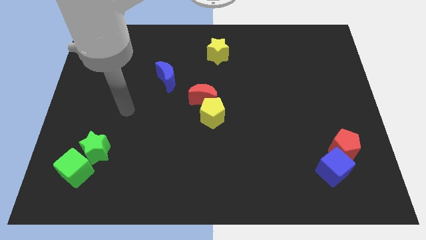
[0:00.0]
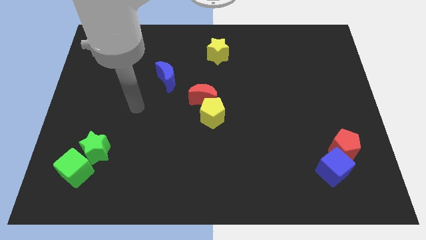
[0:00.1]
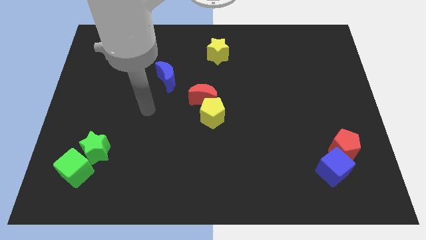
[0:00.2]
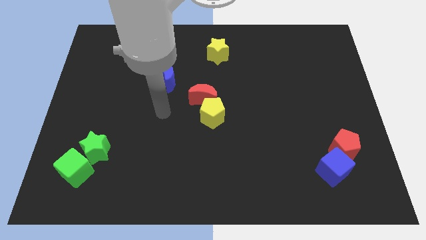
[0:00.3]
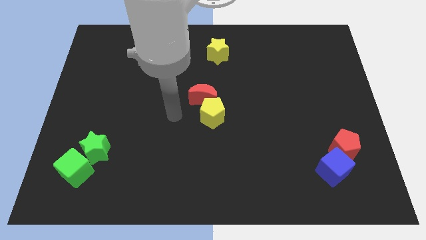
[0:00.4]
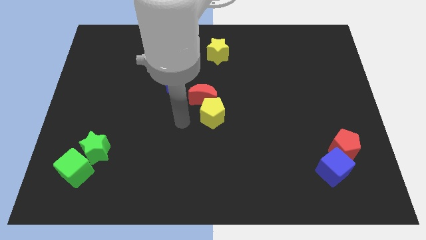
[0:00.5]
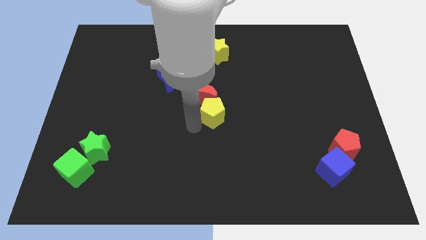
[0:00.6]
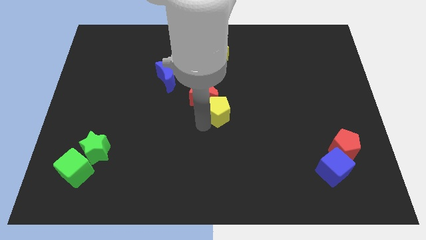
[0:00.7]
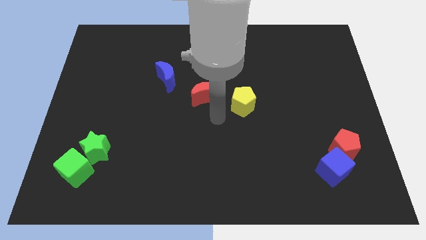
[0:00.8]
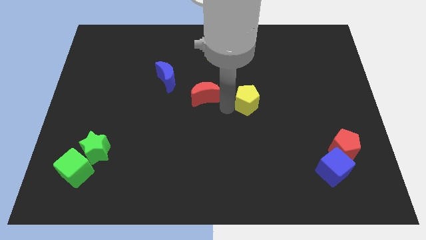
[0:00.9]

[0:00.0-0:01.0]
pull the red moon apart from the yellow pentagon

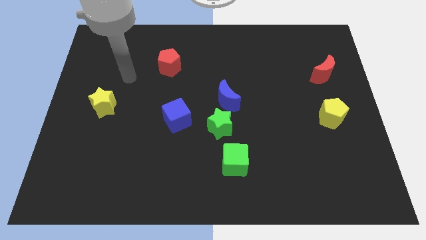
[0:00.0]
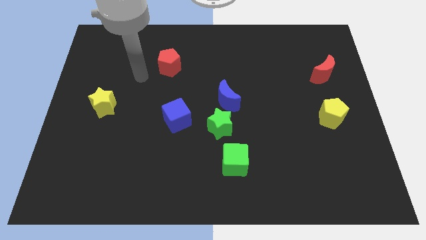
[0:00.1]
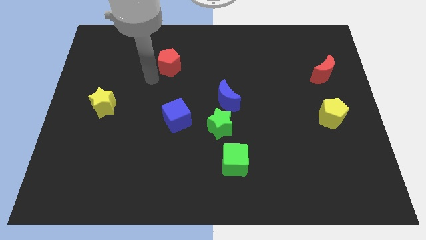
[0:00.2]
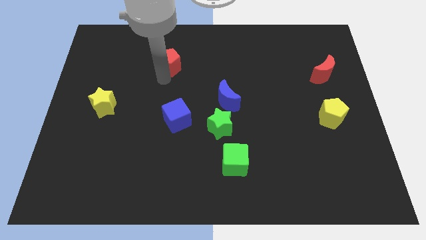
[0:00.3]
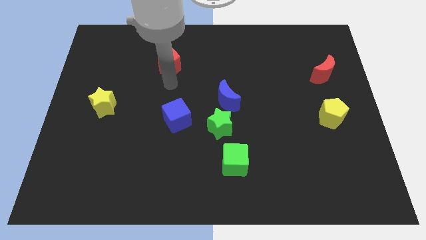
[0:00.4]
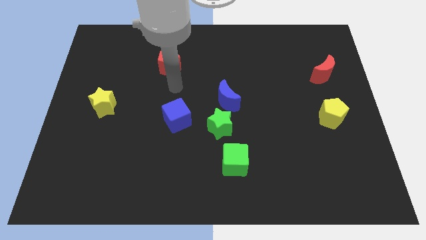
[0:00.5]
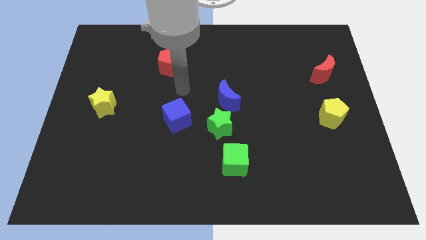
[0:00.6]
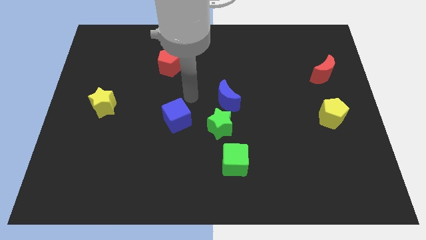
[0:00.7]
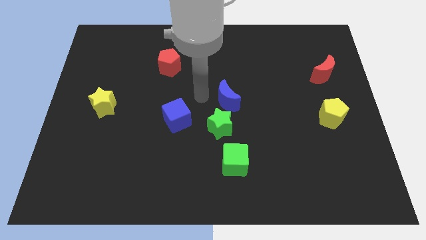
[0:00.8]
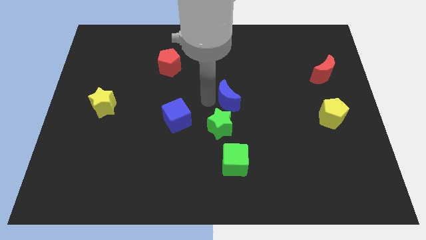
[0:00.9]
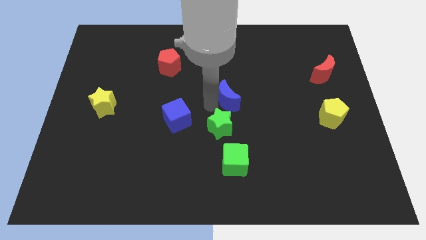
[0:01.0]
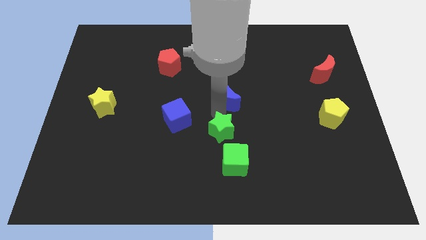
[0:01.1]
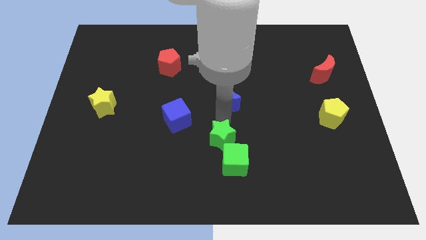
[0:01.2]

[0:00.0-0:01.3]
move the blue moon away from the green star

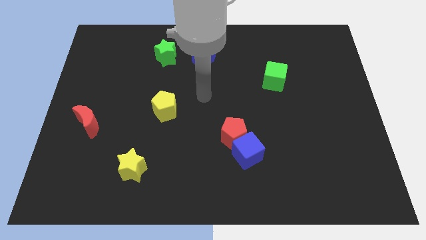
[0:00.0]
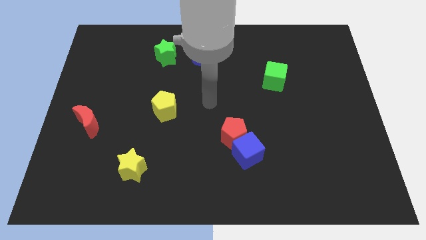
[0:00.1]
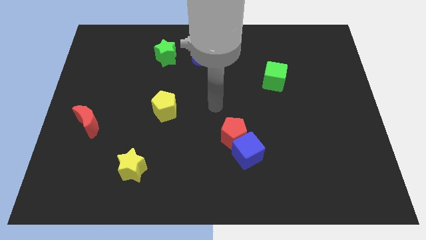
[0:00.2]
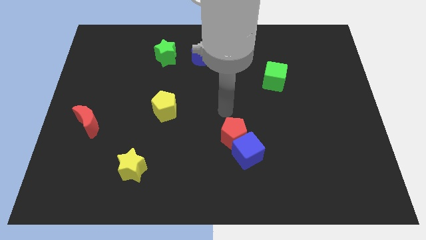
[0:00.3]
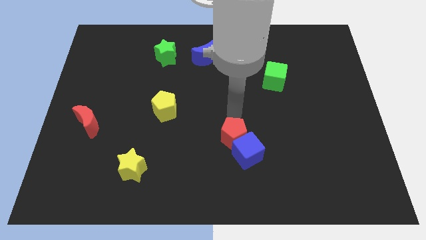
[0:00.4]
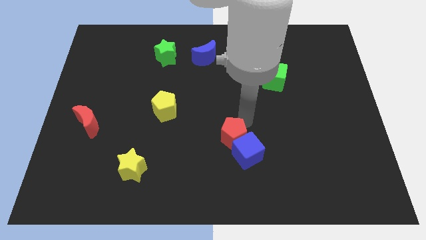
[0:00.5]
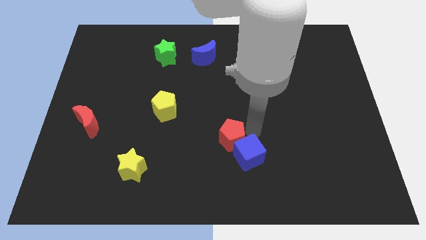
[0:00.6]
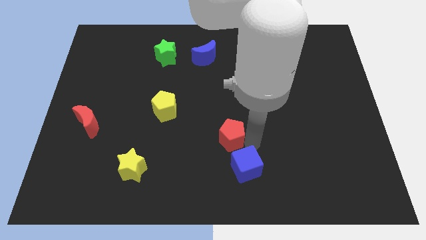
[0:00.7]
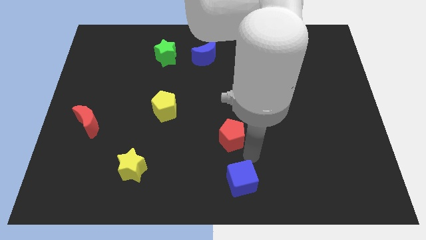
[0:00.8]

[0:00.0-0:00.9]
separate the red pentagon from the blue cube

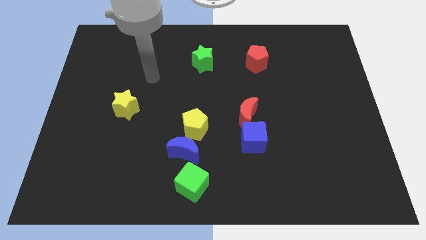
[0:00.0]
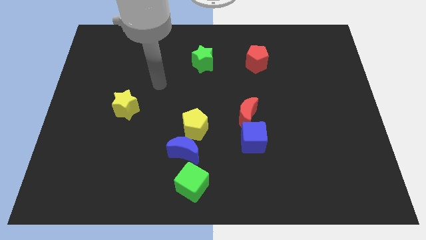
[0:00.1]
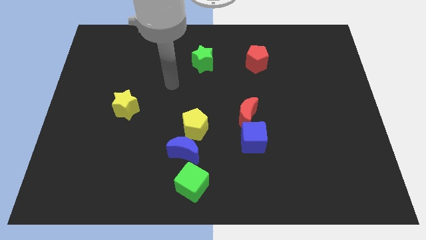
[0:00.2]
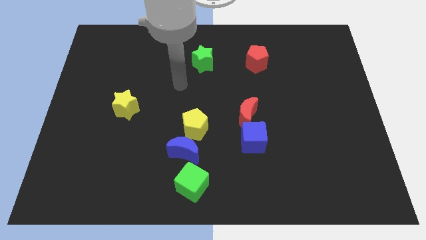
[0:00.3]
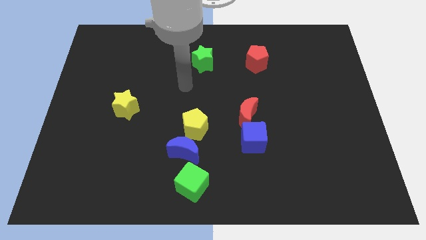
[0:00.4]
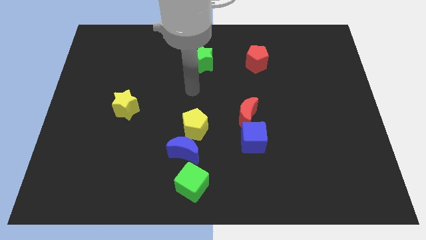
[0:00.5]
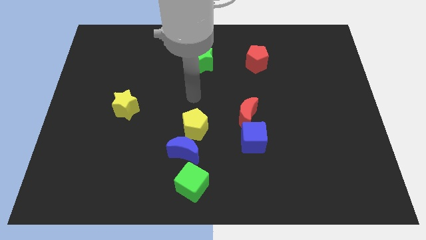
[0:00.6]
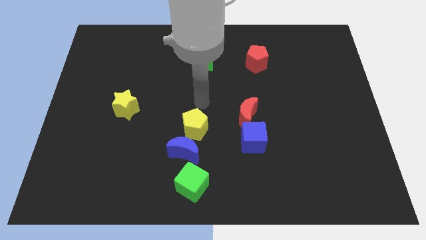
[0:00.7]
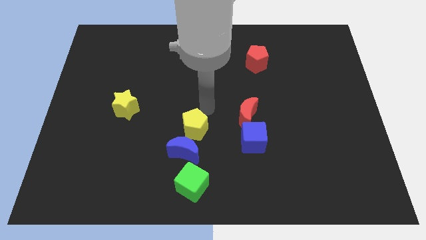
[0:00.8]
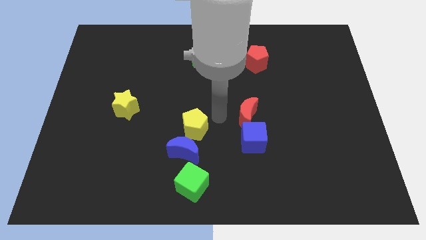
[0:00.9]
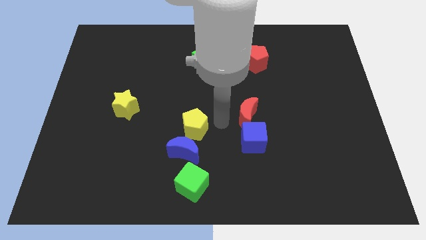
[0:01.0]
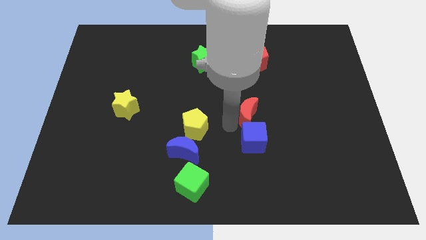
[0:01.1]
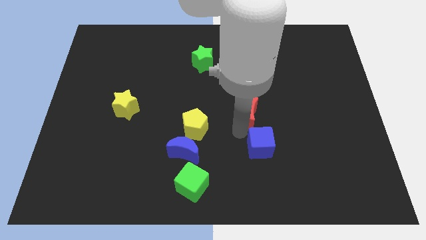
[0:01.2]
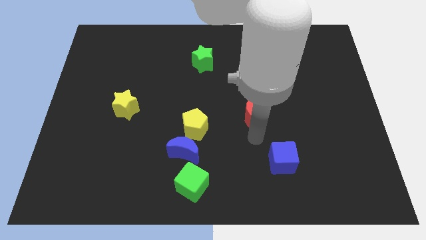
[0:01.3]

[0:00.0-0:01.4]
move the red moon away from the blue cube

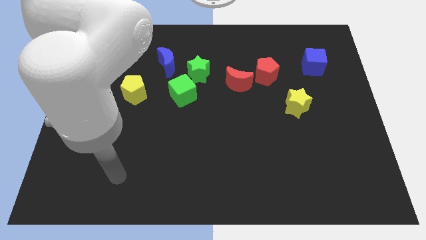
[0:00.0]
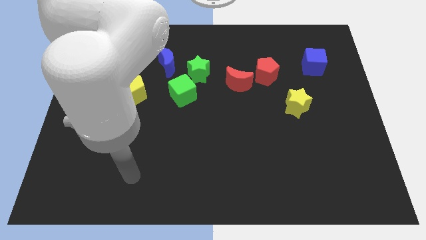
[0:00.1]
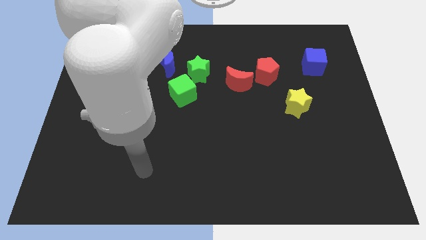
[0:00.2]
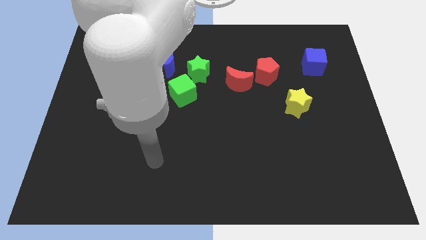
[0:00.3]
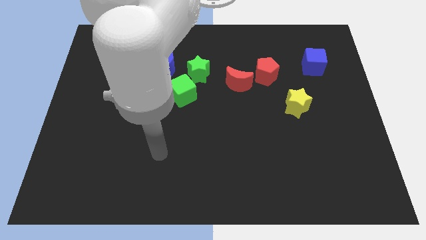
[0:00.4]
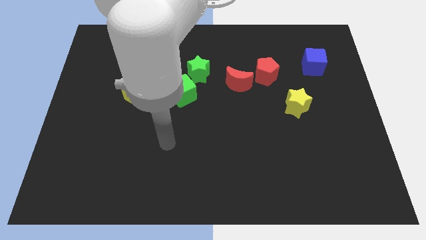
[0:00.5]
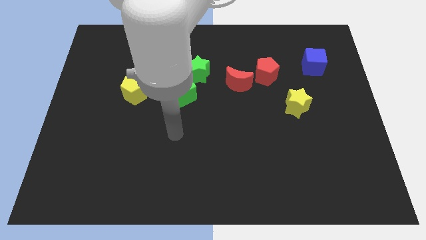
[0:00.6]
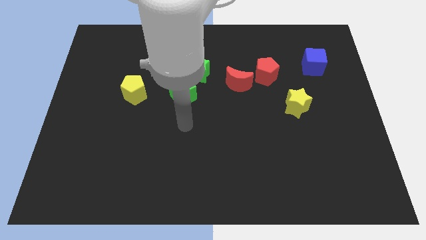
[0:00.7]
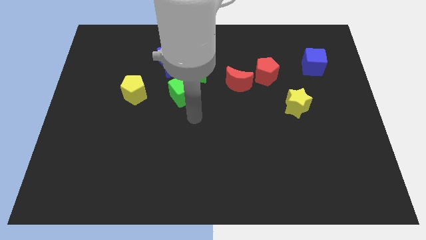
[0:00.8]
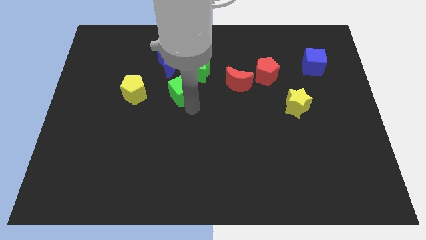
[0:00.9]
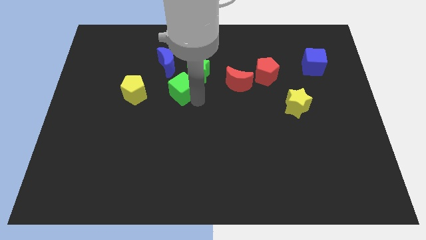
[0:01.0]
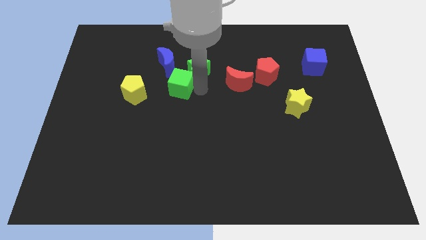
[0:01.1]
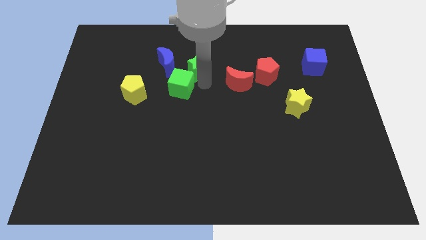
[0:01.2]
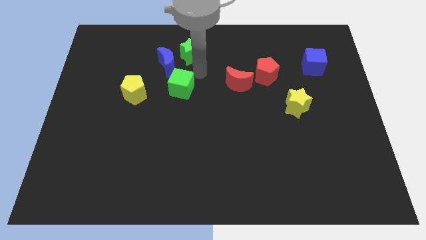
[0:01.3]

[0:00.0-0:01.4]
separate the green cube from the green star

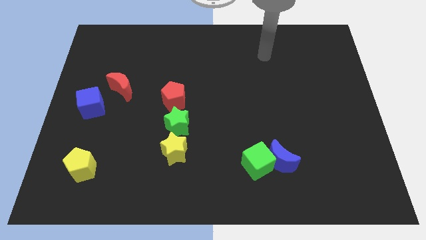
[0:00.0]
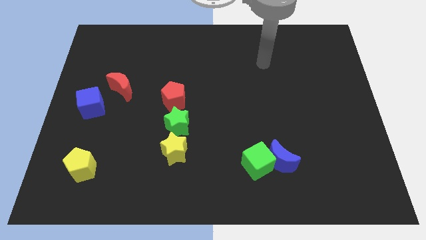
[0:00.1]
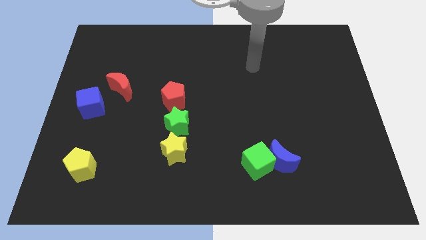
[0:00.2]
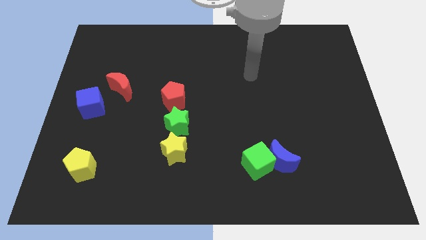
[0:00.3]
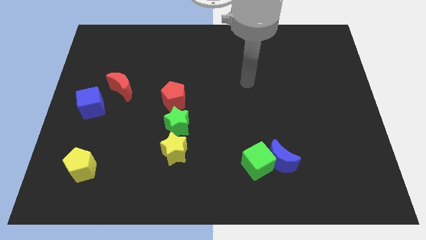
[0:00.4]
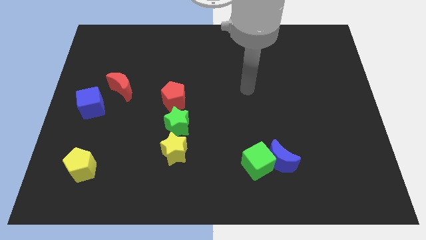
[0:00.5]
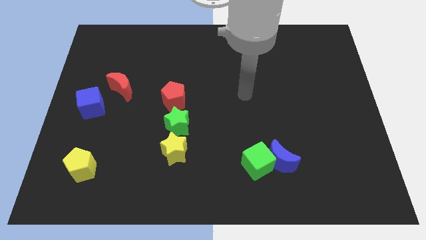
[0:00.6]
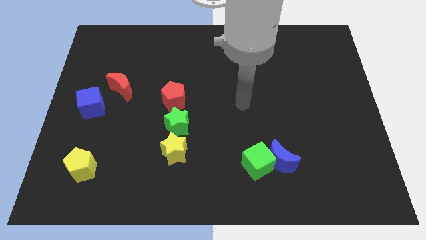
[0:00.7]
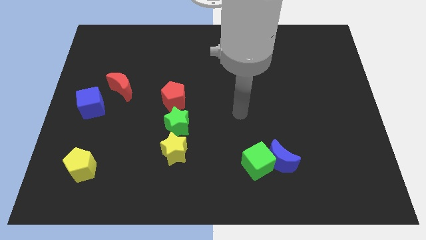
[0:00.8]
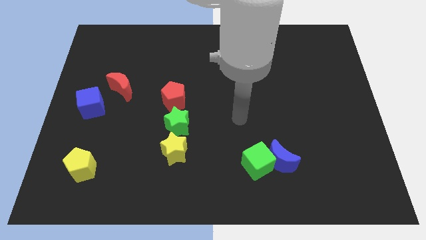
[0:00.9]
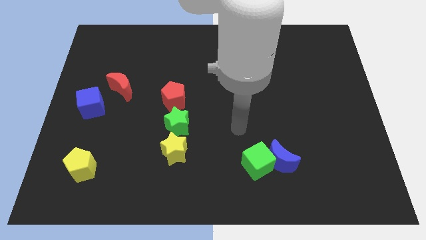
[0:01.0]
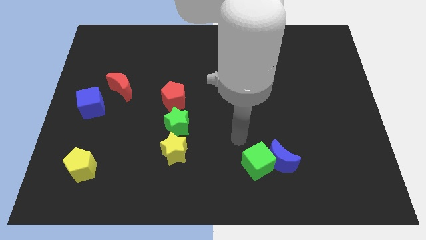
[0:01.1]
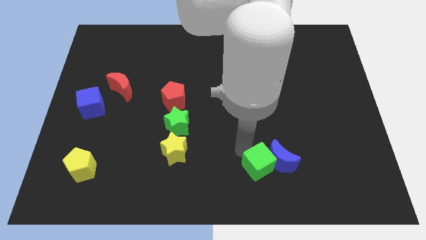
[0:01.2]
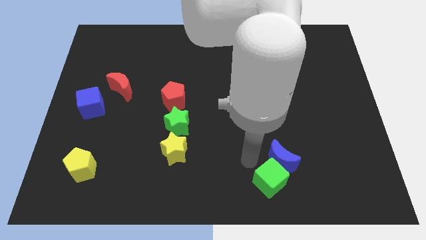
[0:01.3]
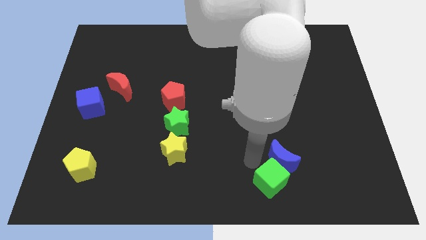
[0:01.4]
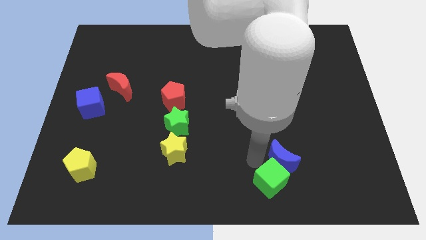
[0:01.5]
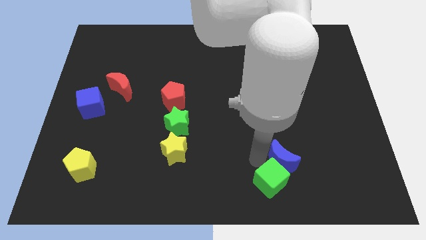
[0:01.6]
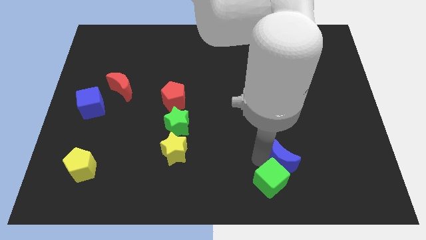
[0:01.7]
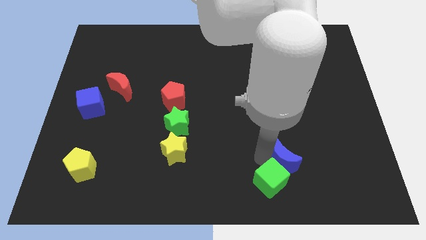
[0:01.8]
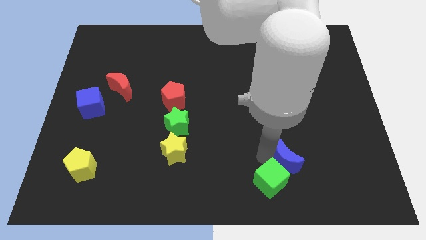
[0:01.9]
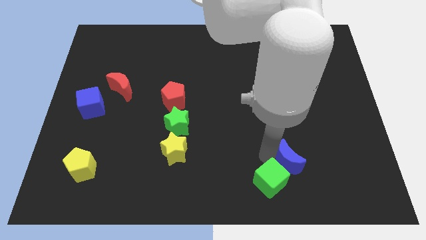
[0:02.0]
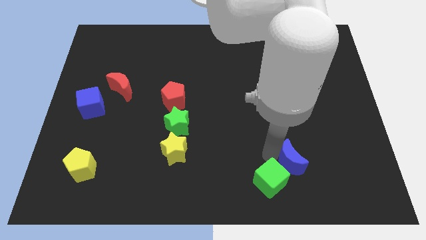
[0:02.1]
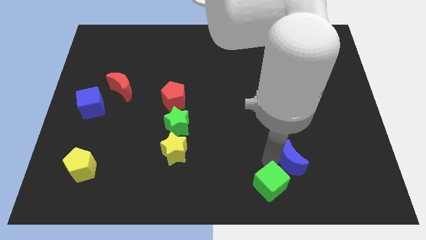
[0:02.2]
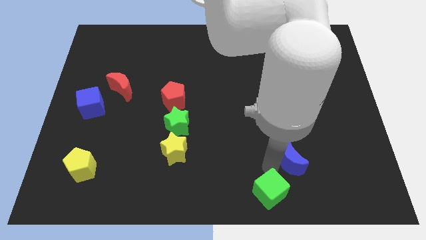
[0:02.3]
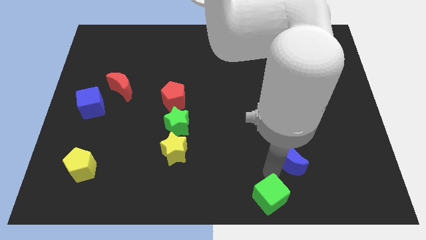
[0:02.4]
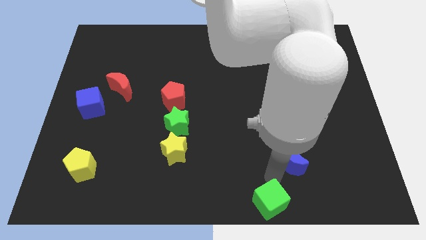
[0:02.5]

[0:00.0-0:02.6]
move the blue moon away from the green cube

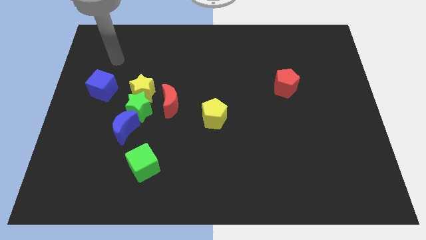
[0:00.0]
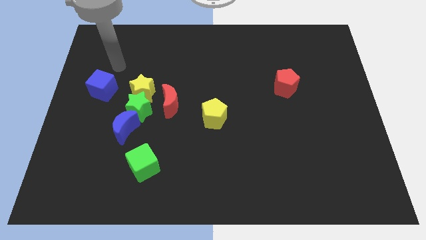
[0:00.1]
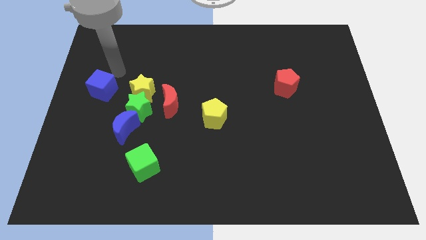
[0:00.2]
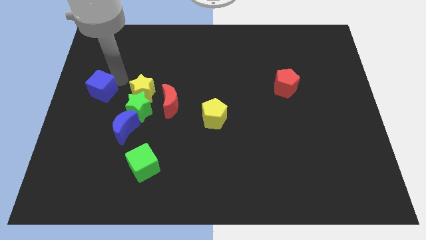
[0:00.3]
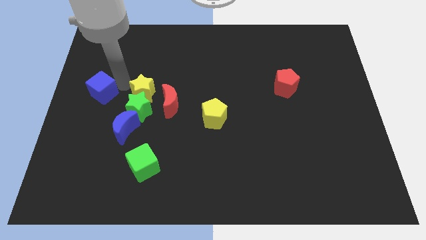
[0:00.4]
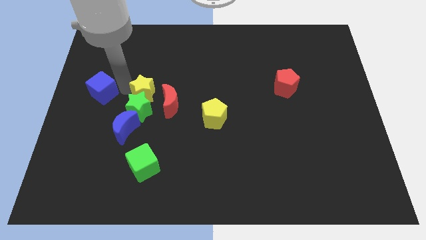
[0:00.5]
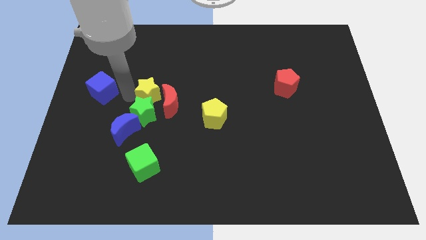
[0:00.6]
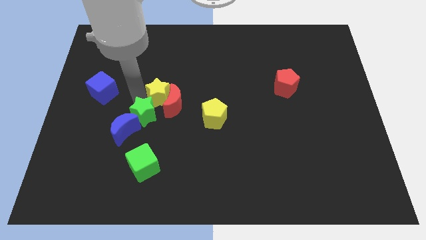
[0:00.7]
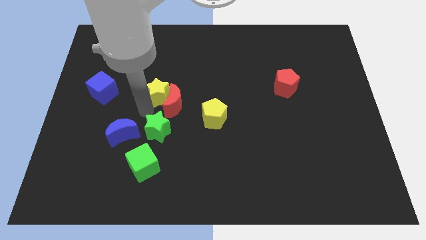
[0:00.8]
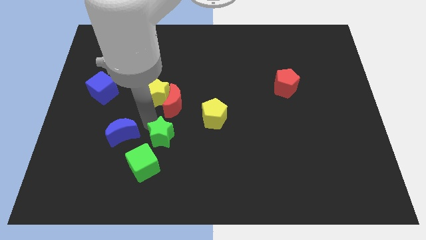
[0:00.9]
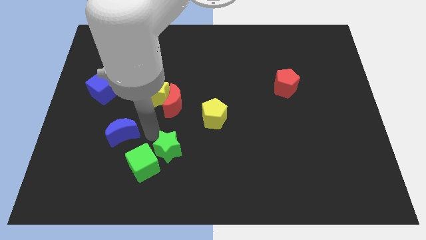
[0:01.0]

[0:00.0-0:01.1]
pull the blue moon apart from the green star
